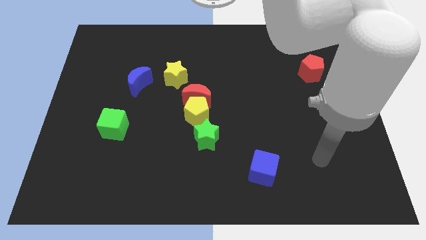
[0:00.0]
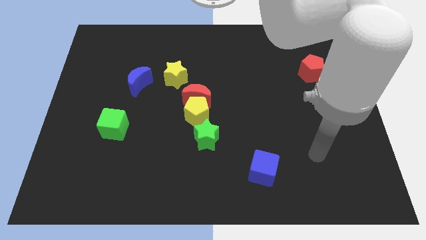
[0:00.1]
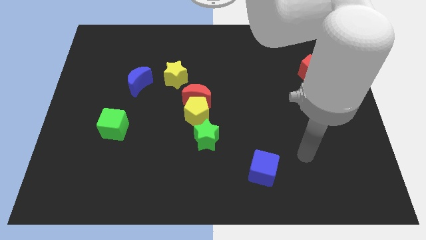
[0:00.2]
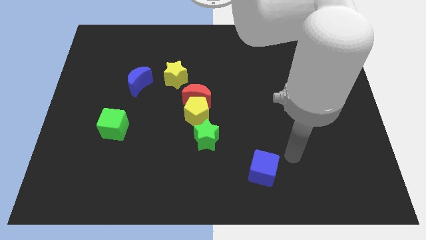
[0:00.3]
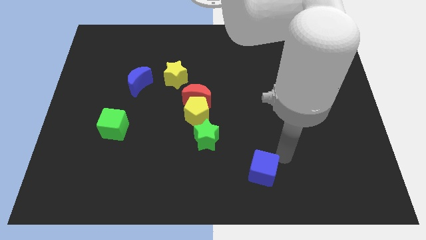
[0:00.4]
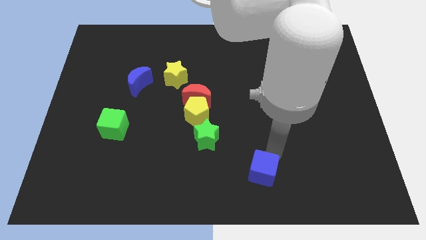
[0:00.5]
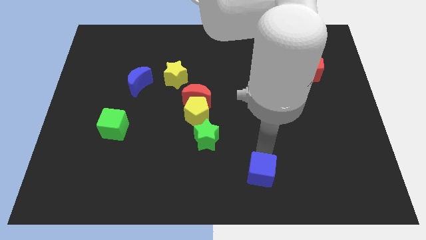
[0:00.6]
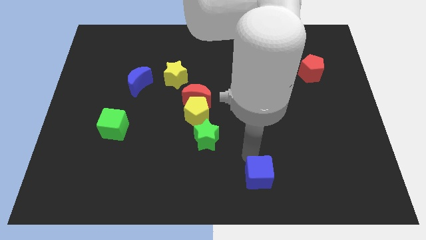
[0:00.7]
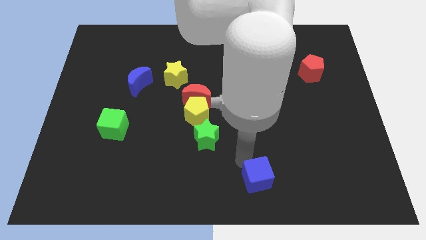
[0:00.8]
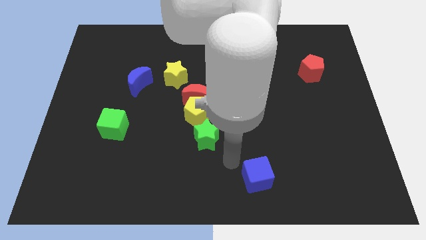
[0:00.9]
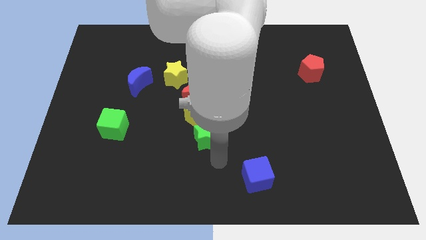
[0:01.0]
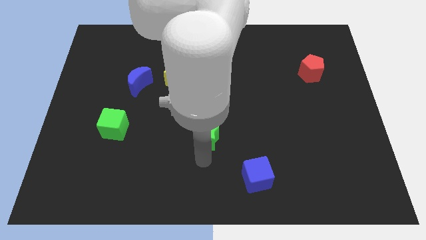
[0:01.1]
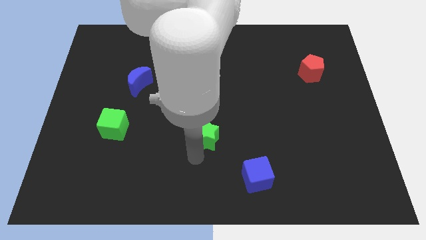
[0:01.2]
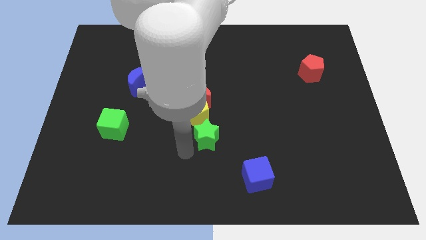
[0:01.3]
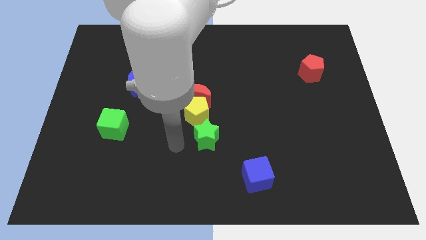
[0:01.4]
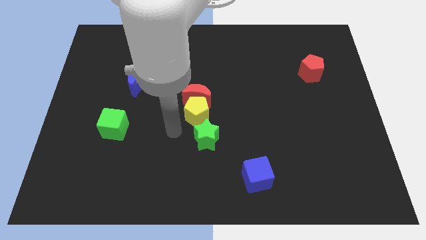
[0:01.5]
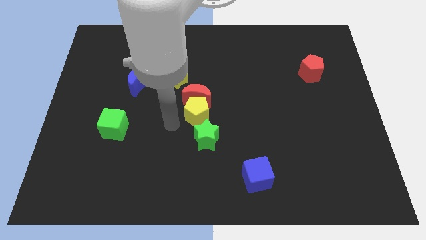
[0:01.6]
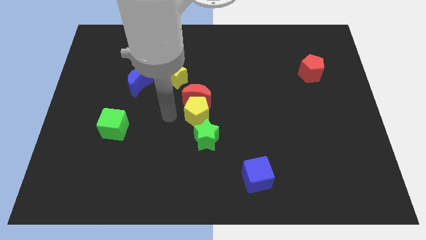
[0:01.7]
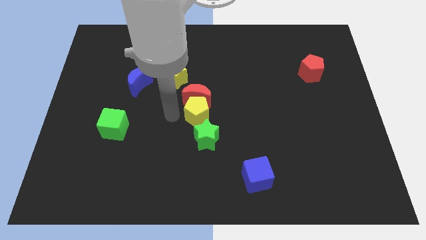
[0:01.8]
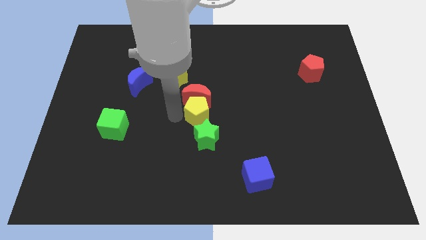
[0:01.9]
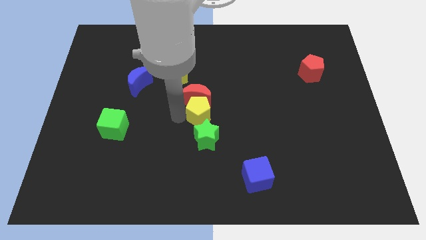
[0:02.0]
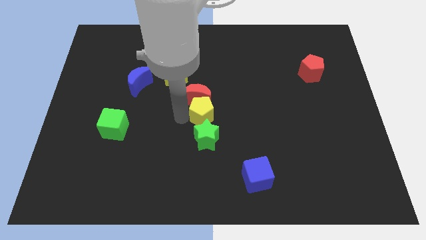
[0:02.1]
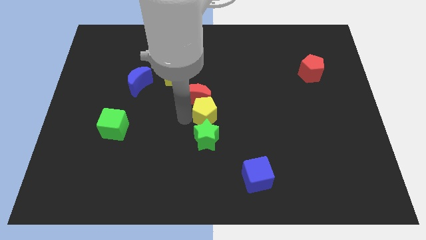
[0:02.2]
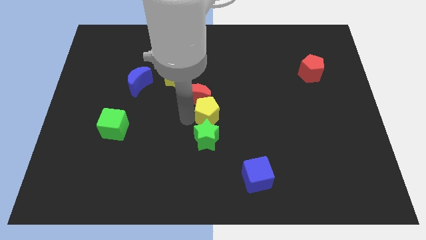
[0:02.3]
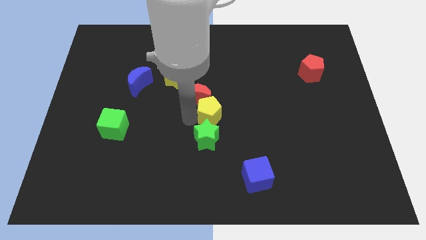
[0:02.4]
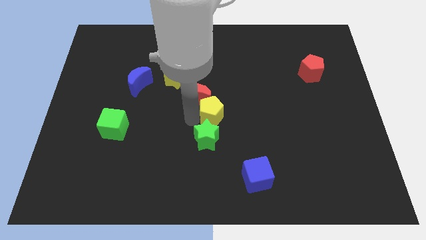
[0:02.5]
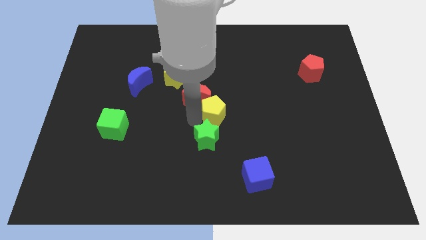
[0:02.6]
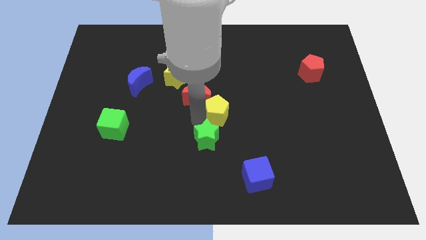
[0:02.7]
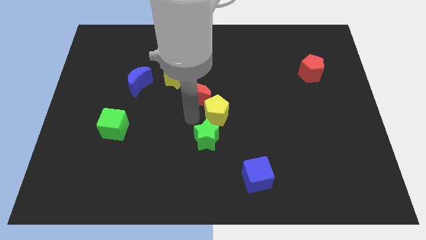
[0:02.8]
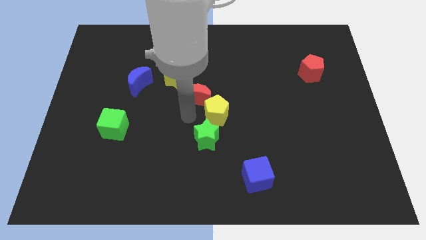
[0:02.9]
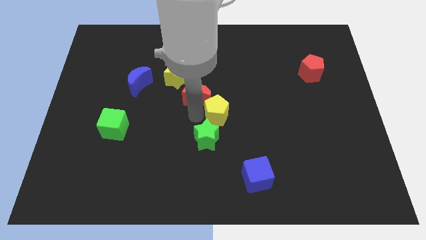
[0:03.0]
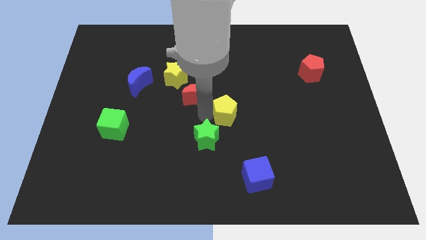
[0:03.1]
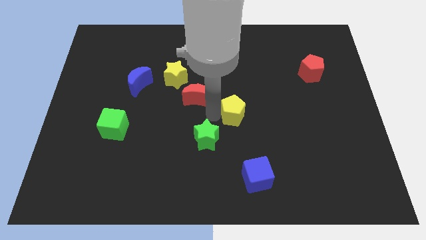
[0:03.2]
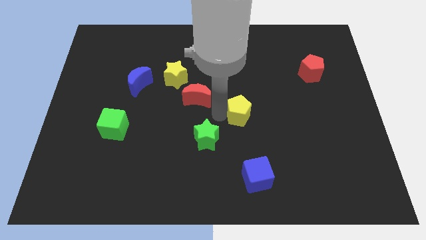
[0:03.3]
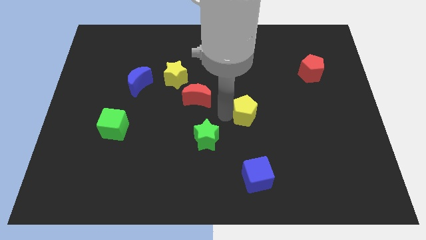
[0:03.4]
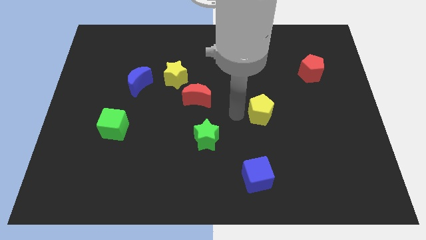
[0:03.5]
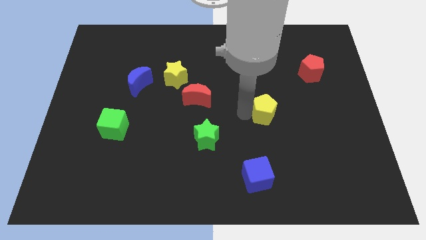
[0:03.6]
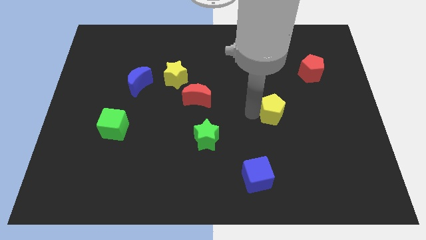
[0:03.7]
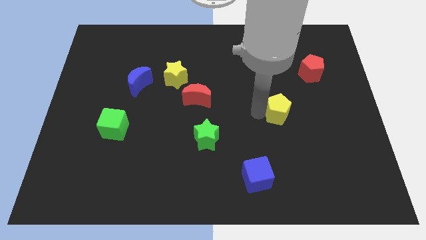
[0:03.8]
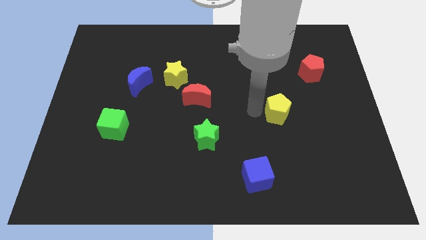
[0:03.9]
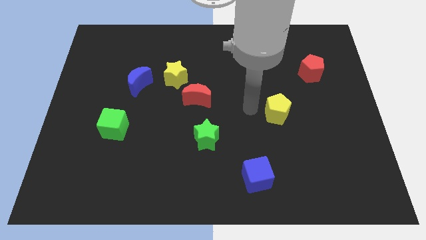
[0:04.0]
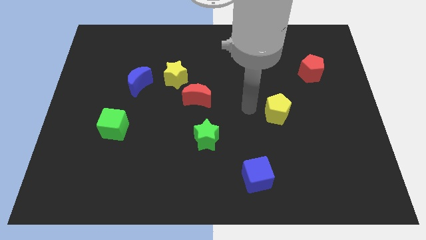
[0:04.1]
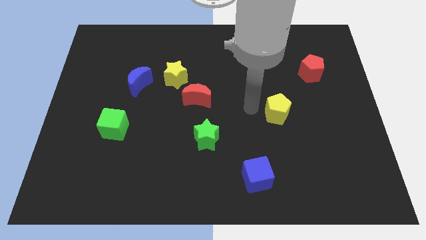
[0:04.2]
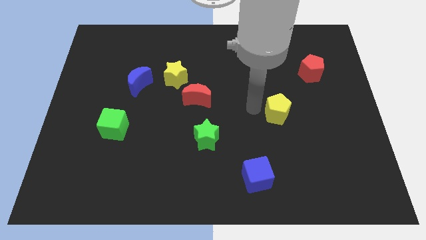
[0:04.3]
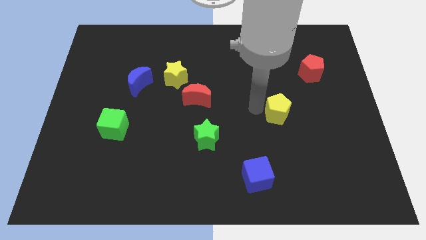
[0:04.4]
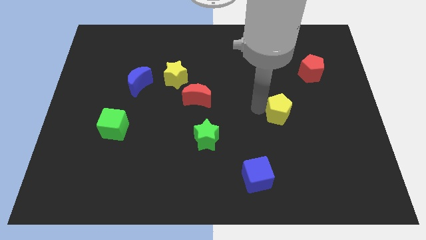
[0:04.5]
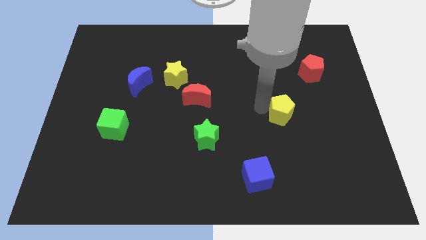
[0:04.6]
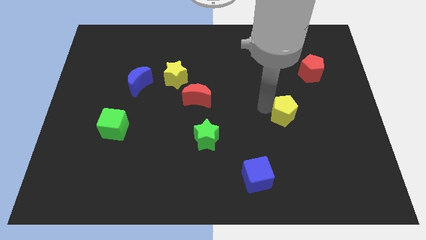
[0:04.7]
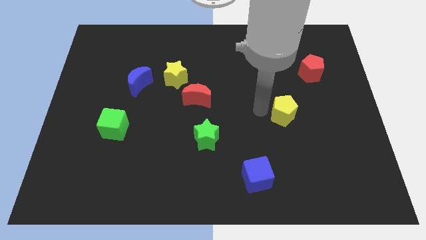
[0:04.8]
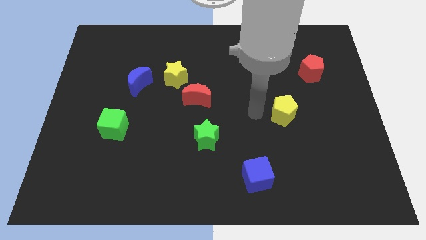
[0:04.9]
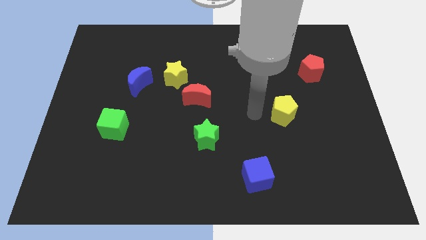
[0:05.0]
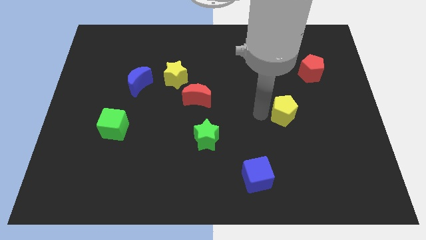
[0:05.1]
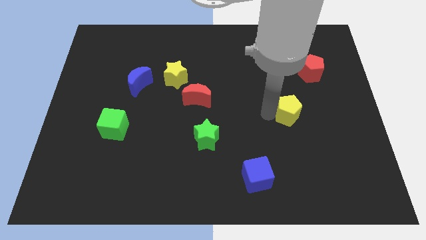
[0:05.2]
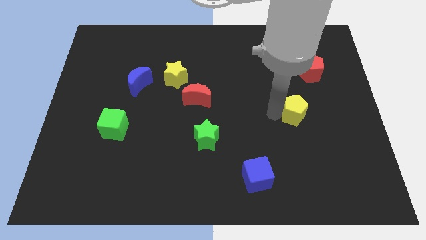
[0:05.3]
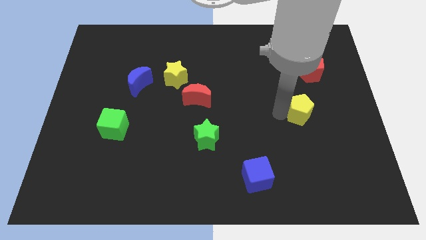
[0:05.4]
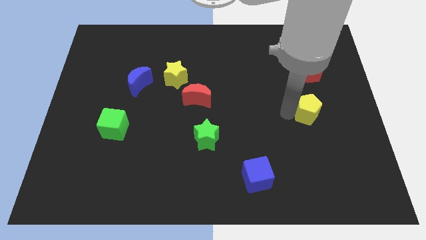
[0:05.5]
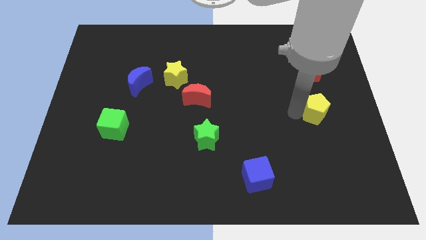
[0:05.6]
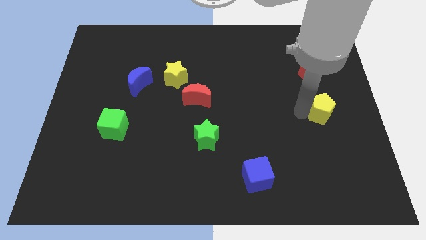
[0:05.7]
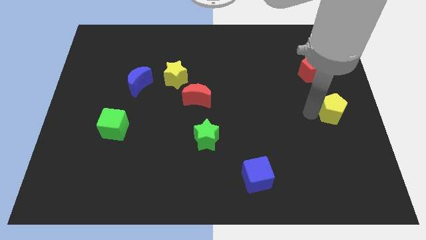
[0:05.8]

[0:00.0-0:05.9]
move the yellow pentagon to the center right

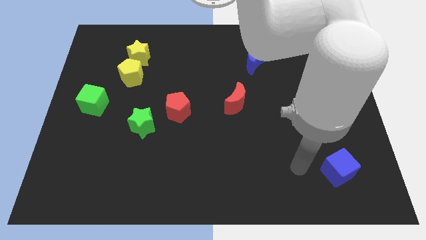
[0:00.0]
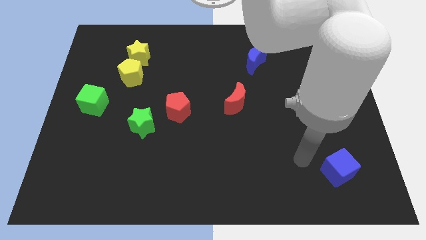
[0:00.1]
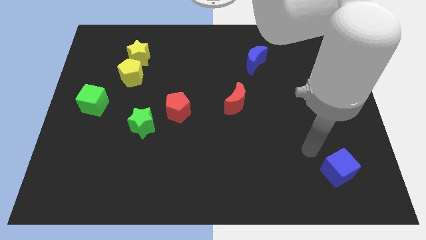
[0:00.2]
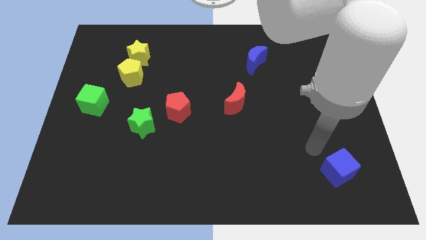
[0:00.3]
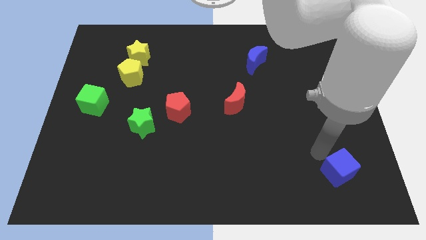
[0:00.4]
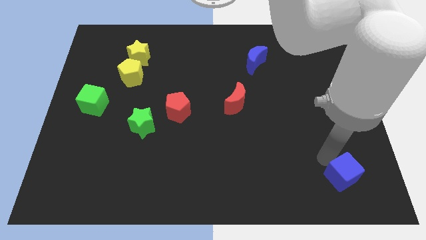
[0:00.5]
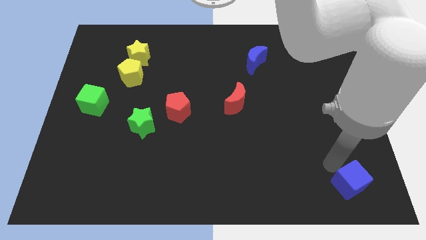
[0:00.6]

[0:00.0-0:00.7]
move the blue cube to the bottom right corner
